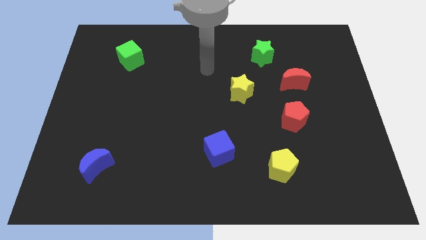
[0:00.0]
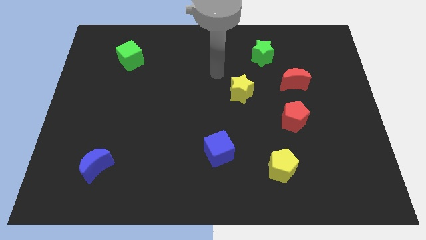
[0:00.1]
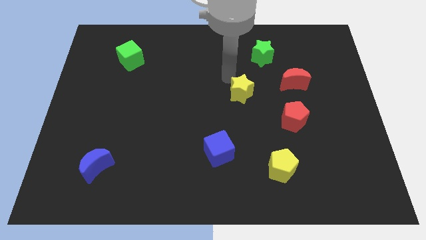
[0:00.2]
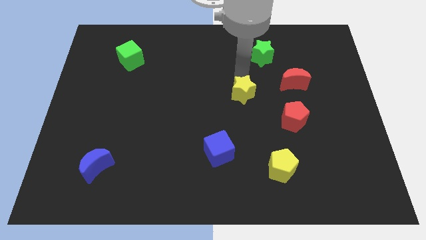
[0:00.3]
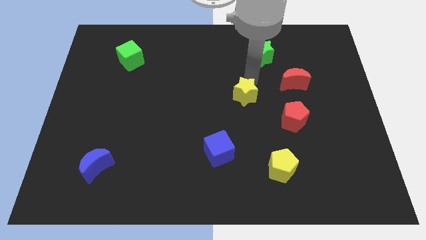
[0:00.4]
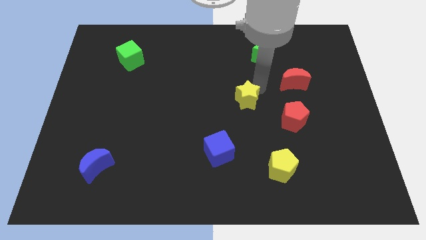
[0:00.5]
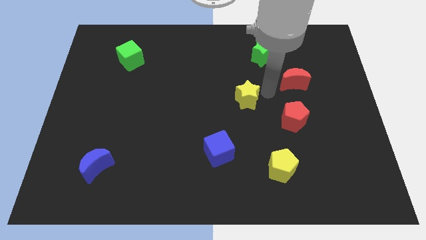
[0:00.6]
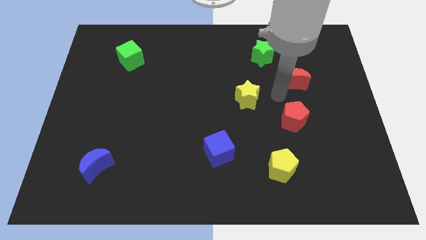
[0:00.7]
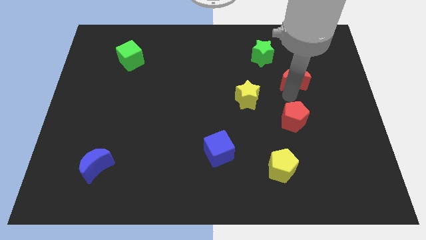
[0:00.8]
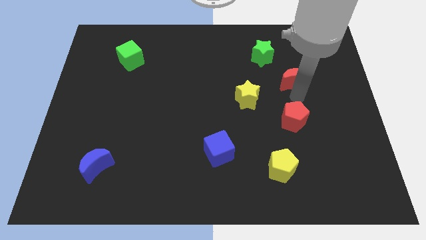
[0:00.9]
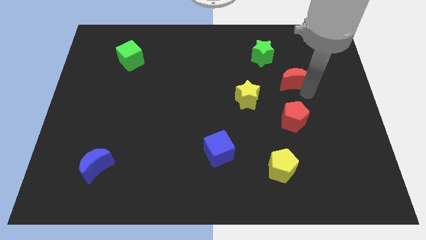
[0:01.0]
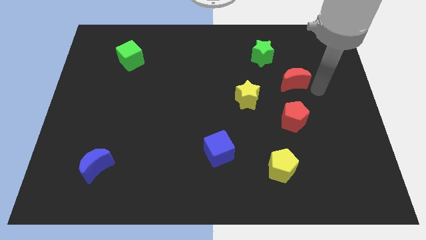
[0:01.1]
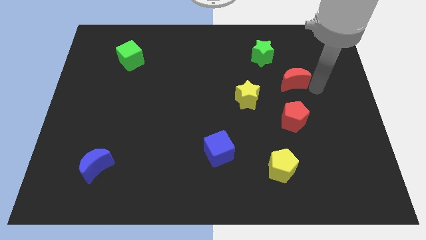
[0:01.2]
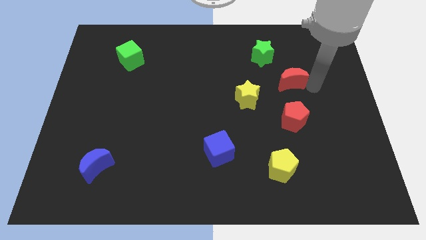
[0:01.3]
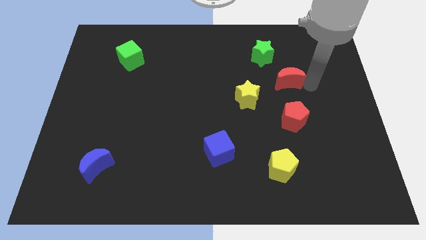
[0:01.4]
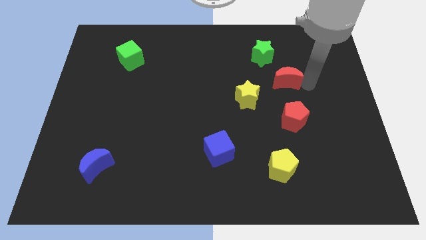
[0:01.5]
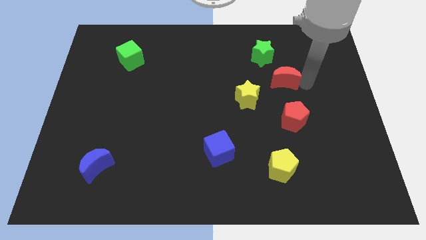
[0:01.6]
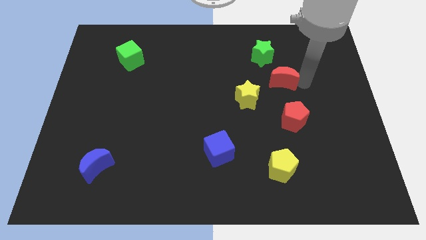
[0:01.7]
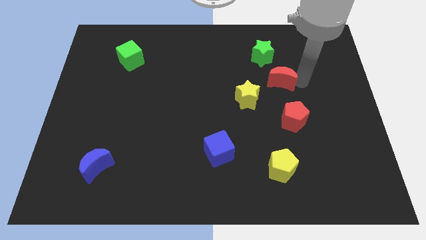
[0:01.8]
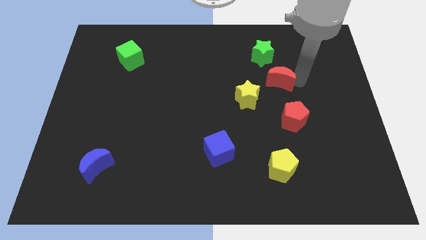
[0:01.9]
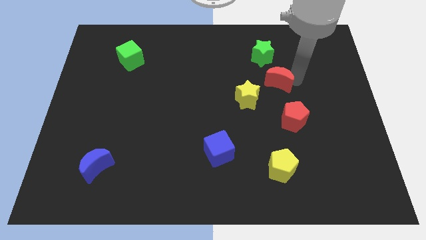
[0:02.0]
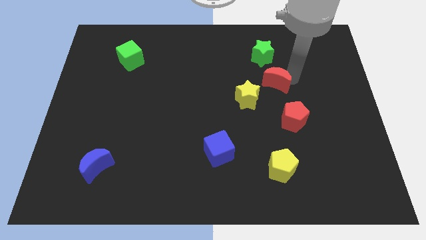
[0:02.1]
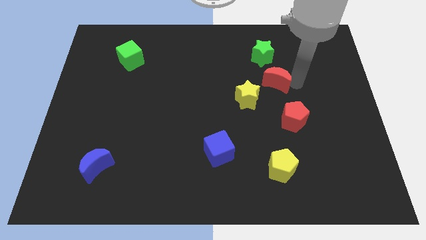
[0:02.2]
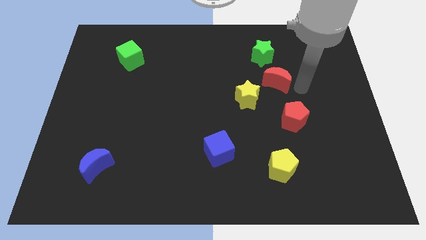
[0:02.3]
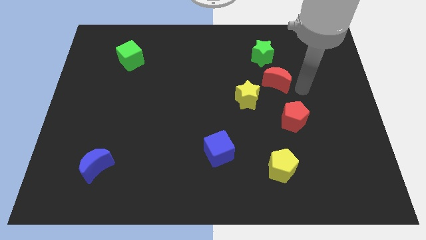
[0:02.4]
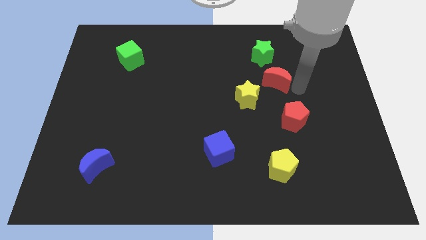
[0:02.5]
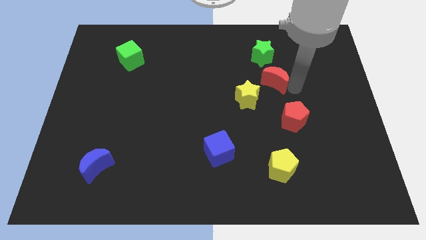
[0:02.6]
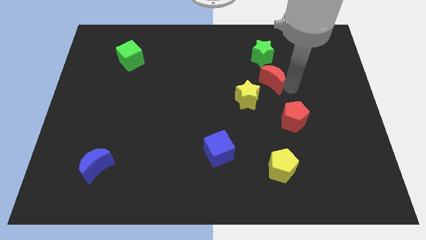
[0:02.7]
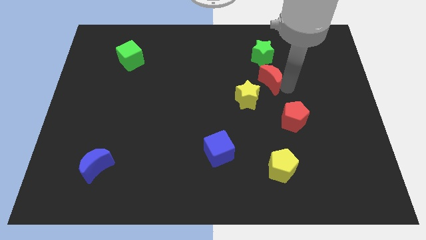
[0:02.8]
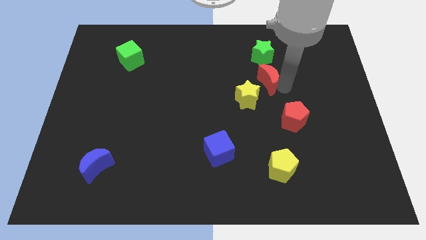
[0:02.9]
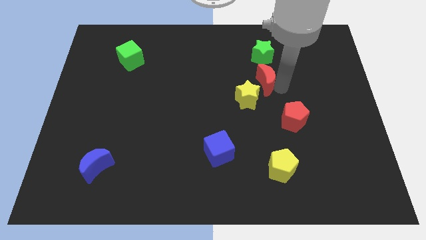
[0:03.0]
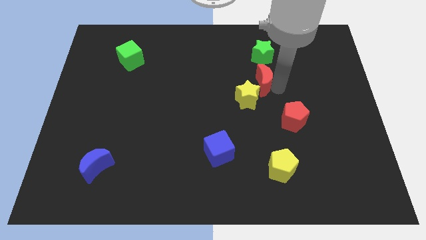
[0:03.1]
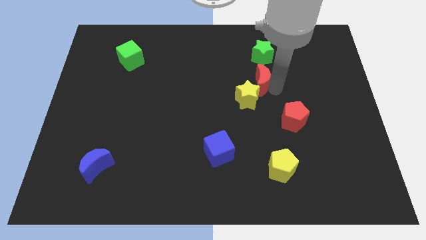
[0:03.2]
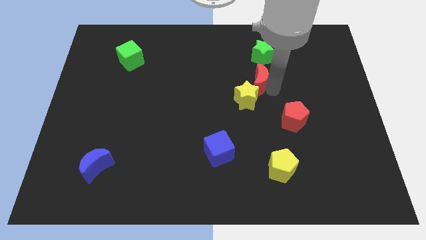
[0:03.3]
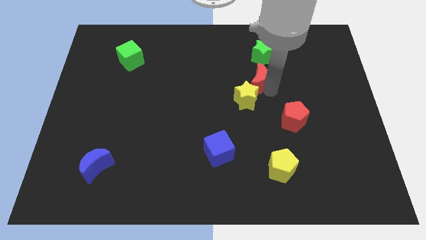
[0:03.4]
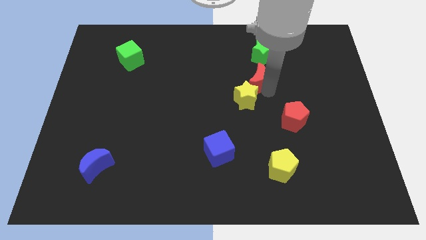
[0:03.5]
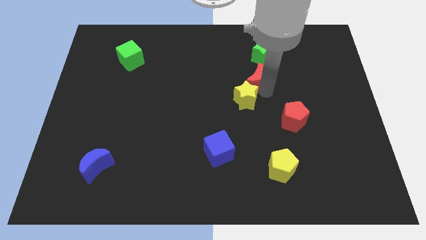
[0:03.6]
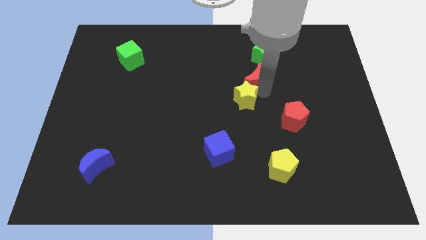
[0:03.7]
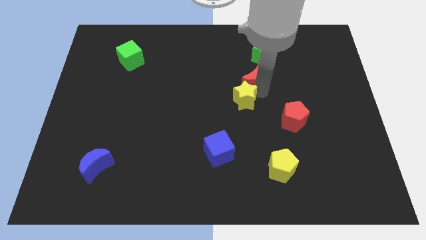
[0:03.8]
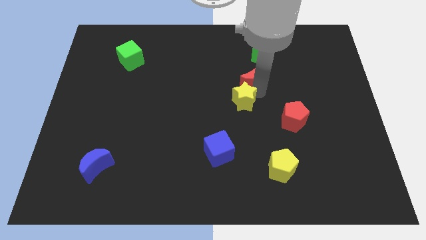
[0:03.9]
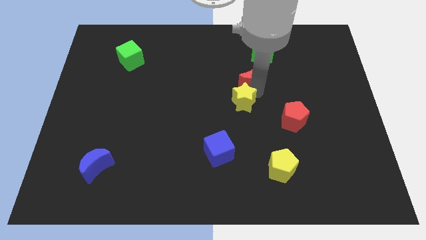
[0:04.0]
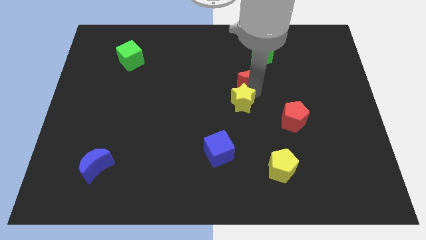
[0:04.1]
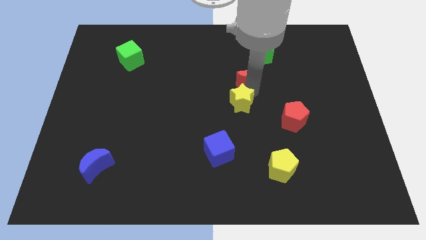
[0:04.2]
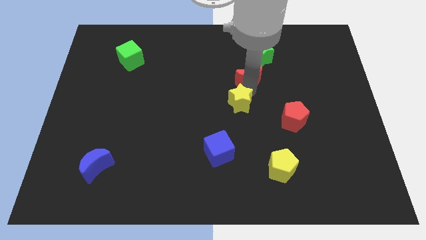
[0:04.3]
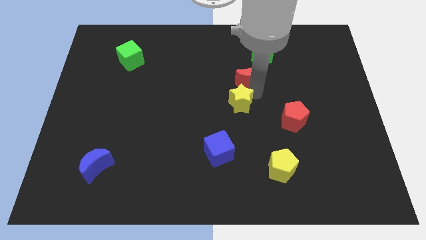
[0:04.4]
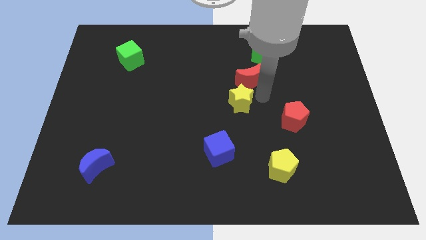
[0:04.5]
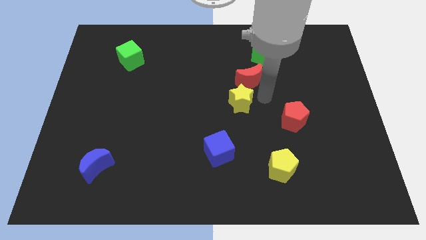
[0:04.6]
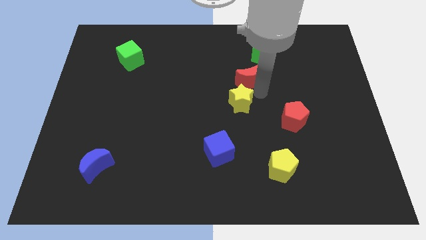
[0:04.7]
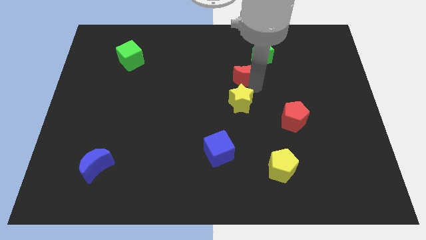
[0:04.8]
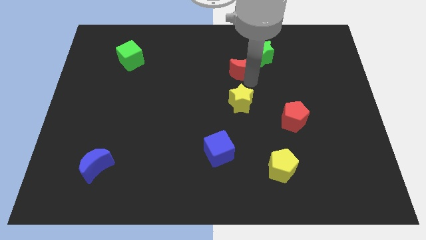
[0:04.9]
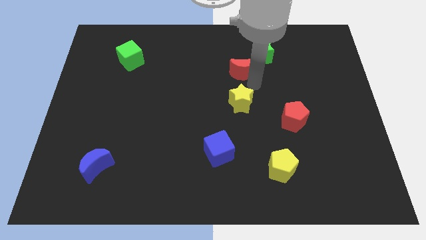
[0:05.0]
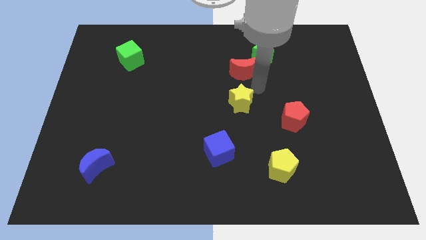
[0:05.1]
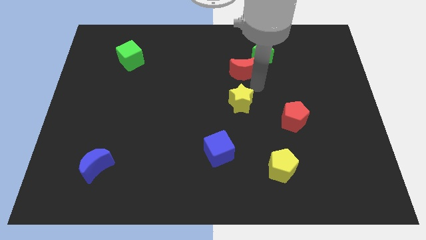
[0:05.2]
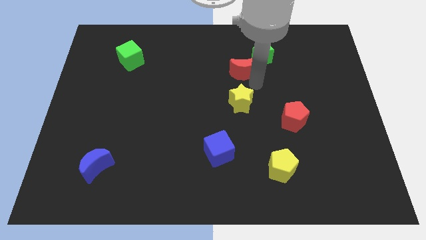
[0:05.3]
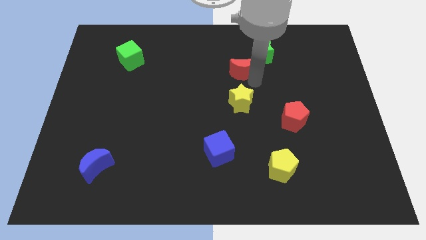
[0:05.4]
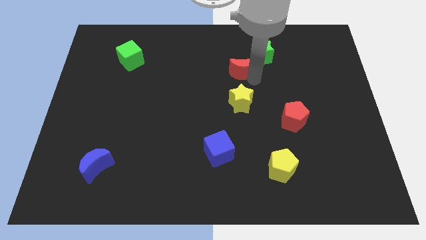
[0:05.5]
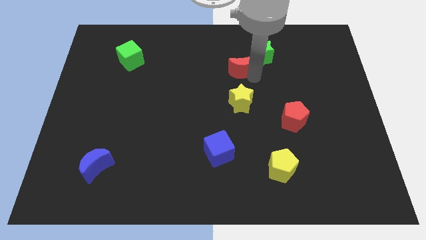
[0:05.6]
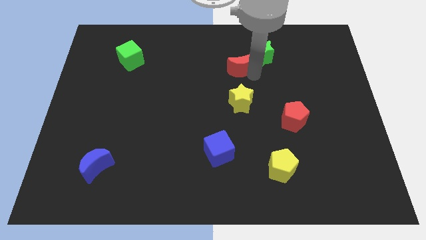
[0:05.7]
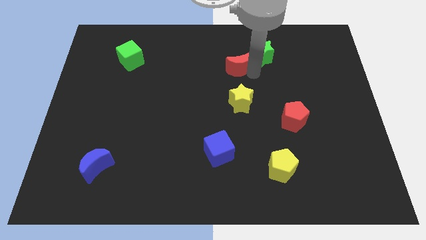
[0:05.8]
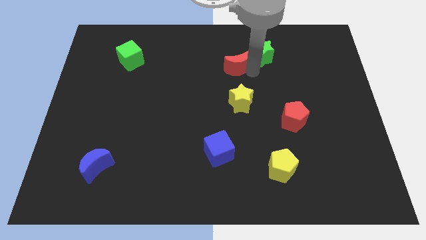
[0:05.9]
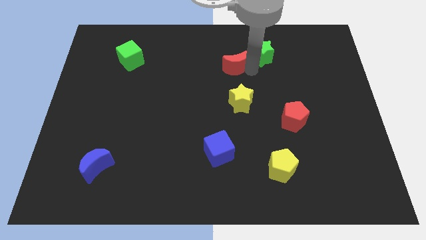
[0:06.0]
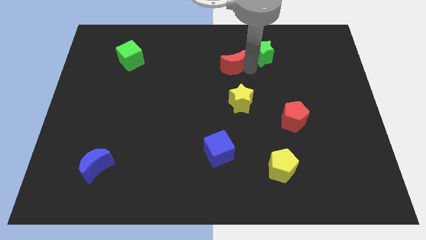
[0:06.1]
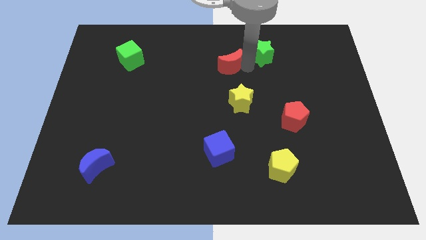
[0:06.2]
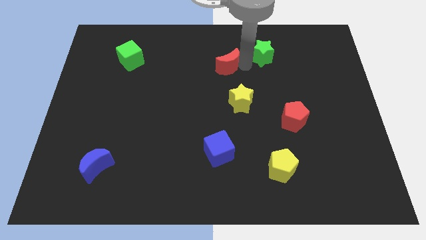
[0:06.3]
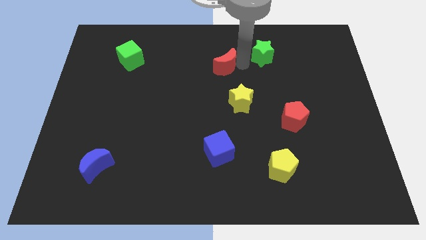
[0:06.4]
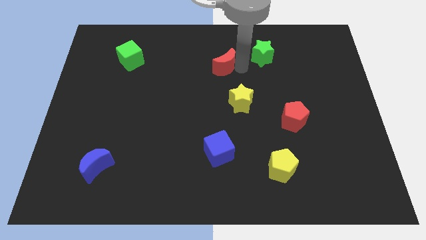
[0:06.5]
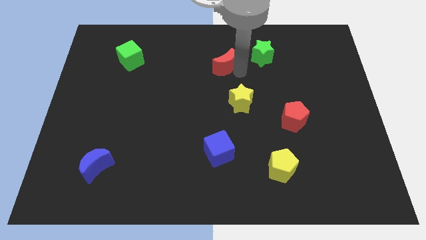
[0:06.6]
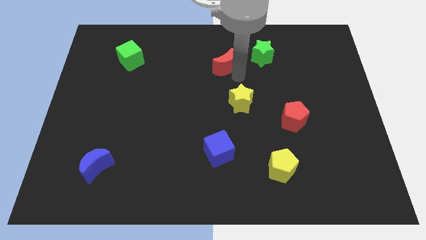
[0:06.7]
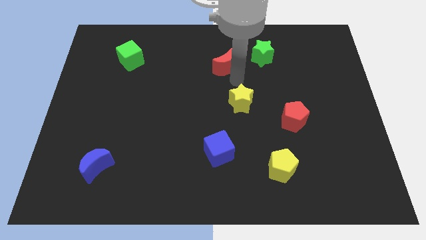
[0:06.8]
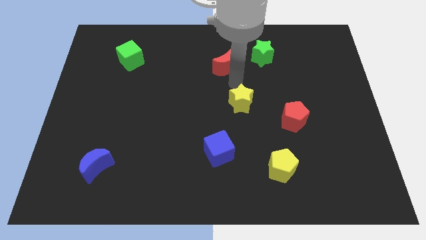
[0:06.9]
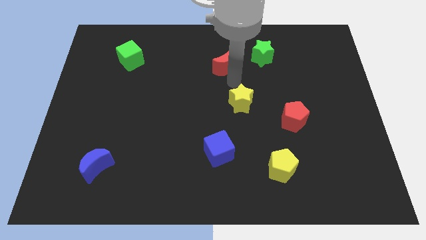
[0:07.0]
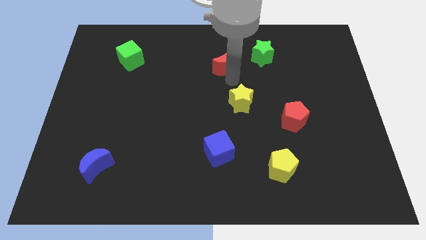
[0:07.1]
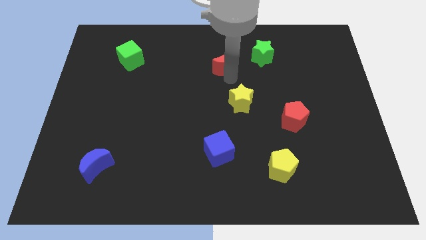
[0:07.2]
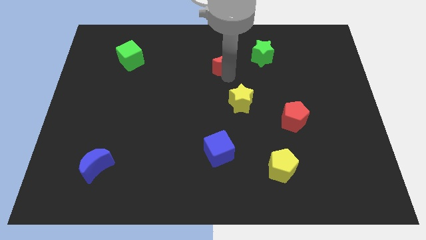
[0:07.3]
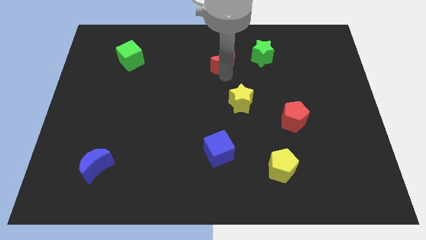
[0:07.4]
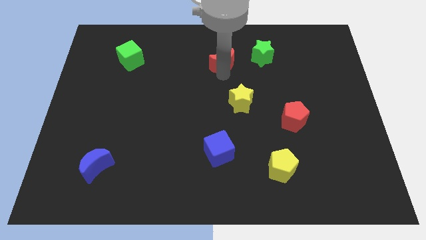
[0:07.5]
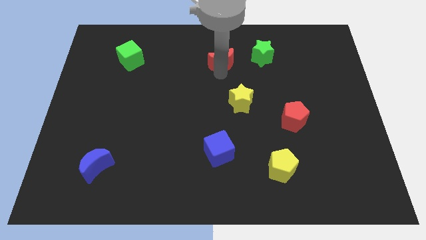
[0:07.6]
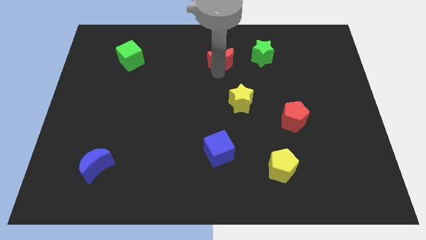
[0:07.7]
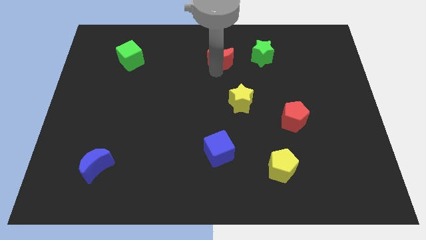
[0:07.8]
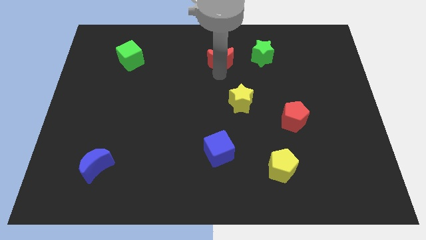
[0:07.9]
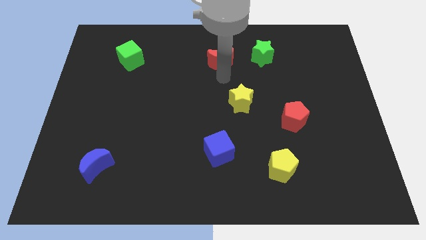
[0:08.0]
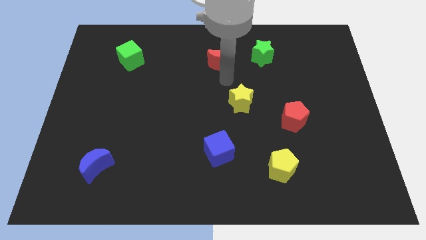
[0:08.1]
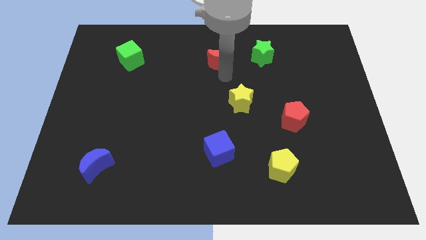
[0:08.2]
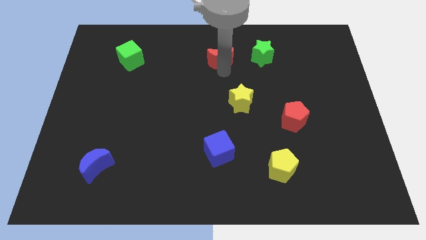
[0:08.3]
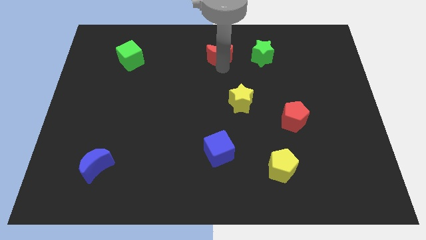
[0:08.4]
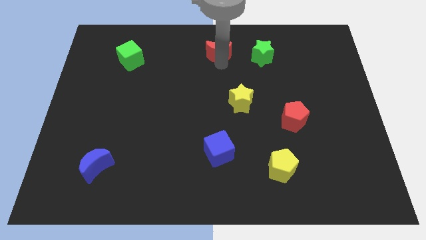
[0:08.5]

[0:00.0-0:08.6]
push the red moon to the towards your base
